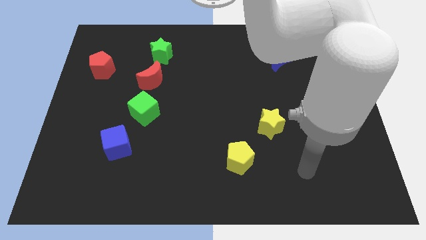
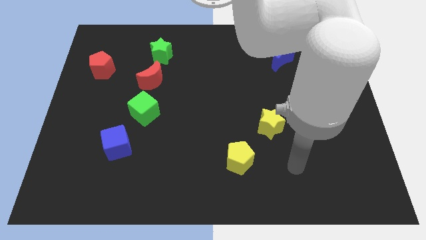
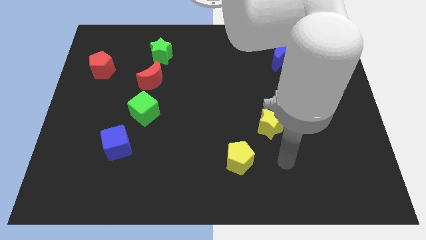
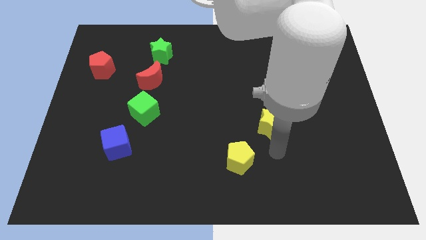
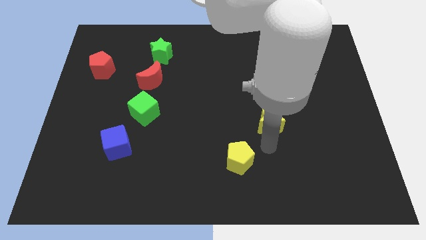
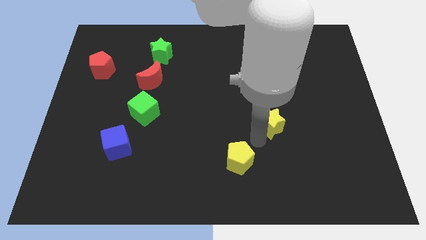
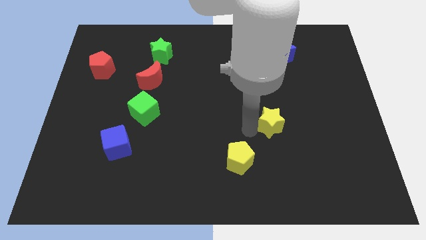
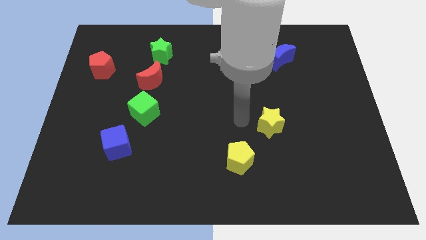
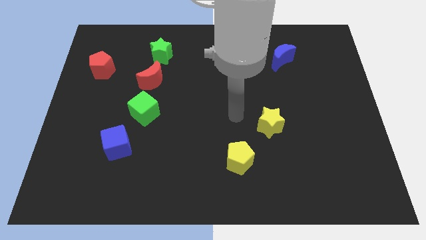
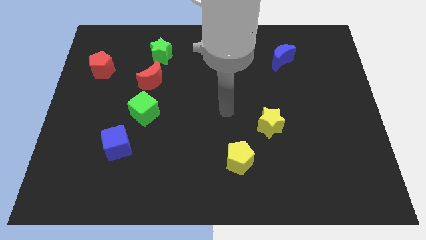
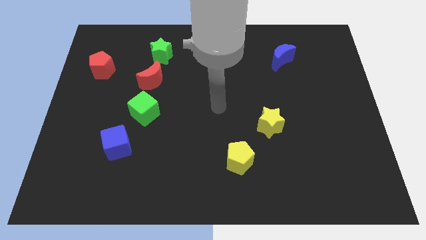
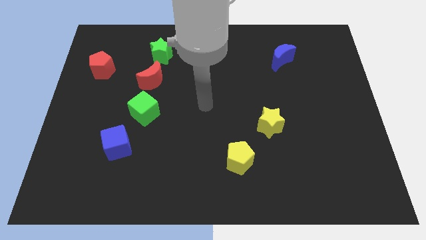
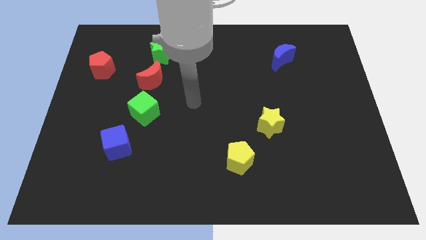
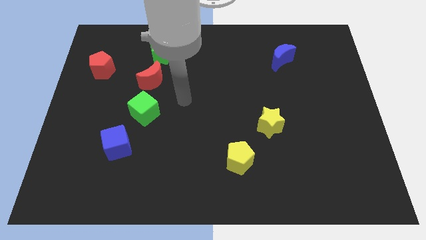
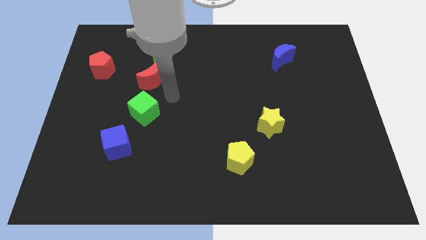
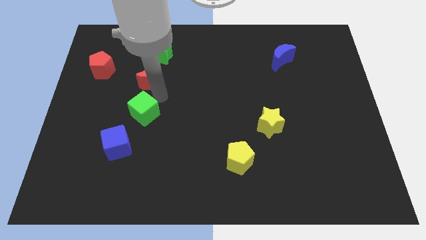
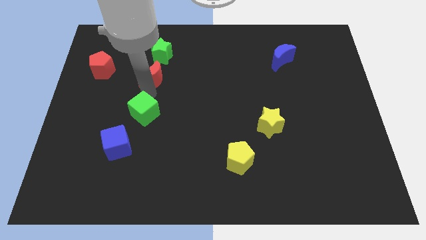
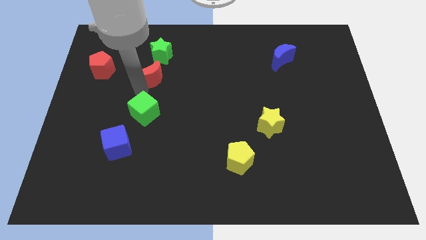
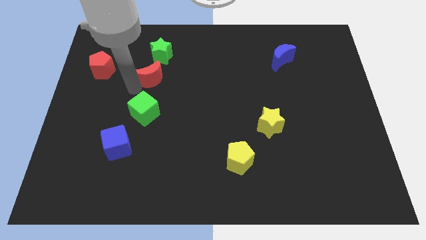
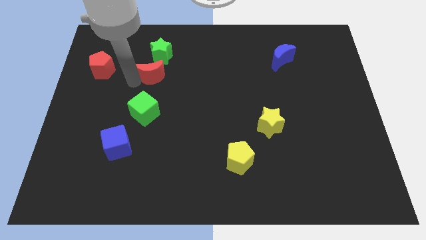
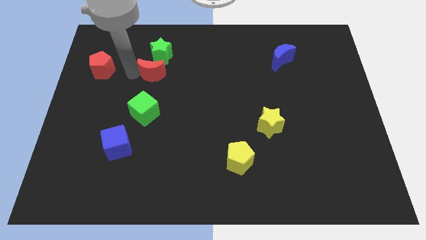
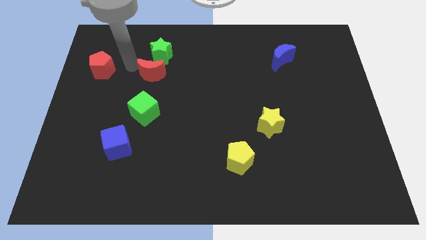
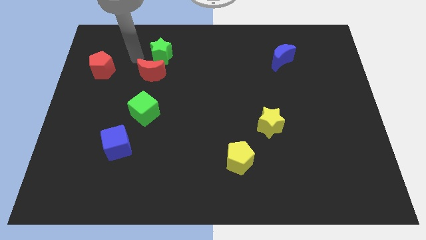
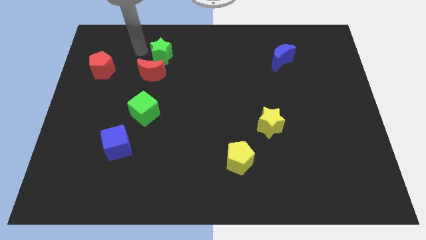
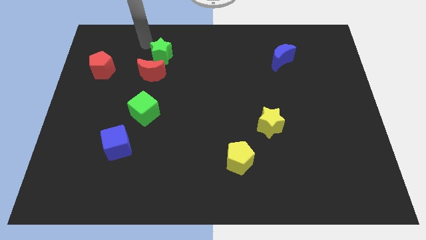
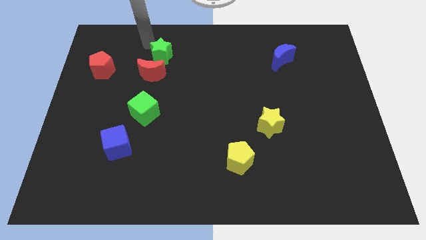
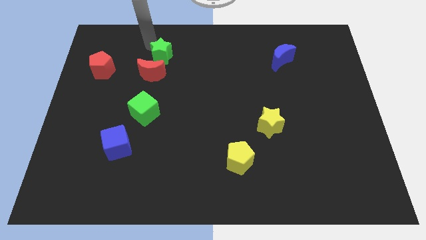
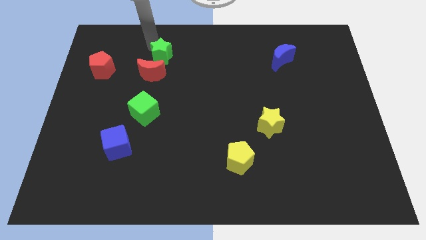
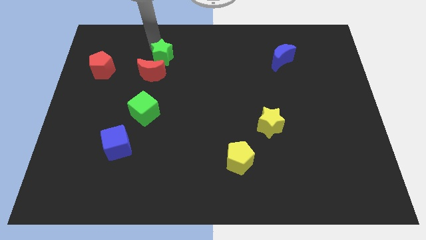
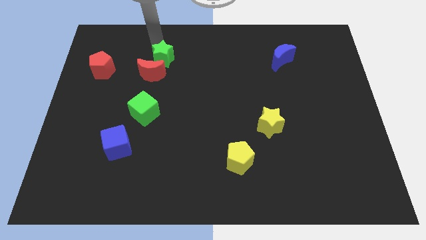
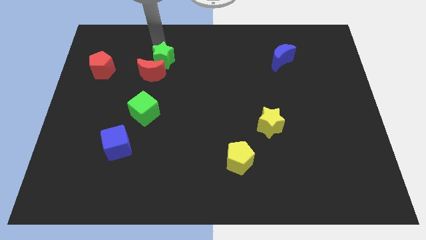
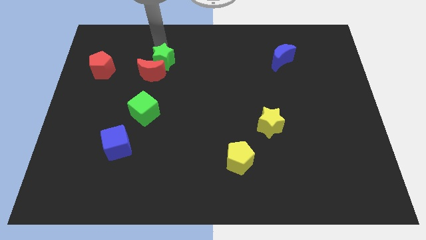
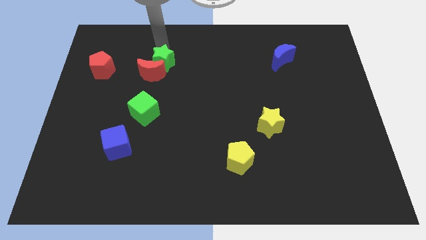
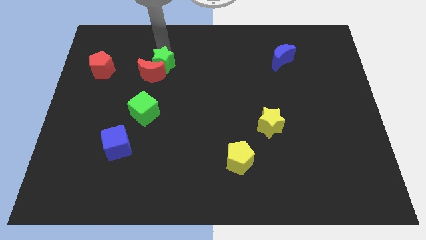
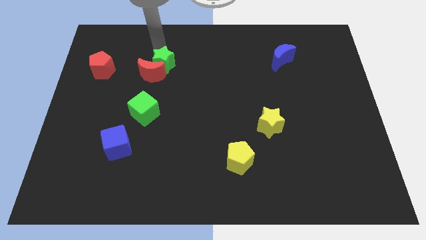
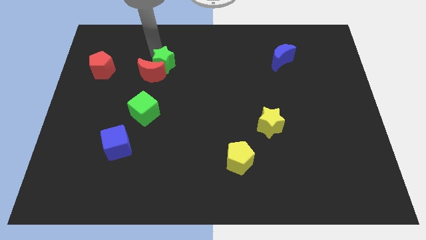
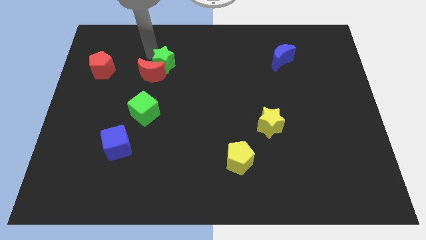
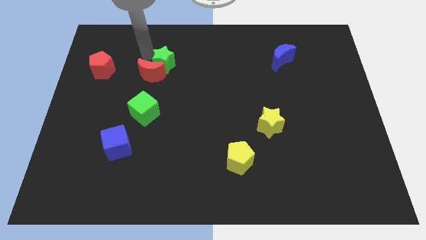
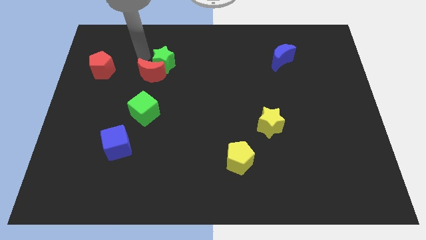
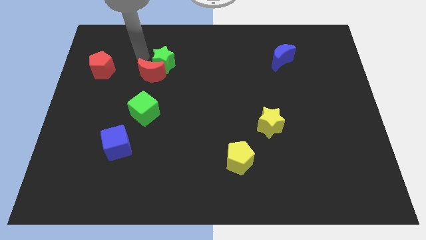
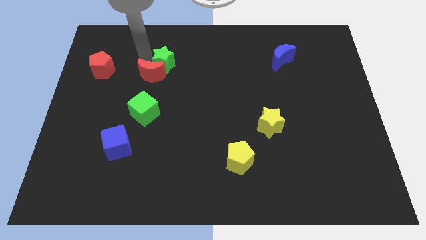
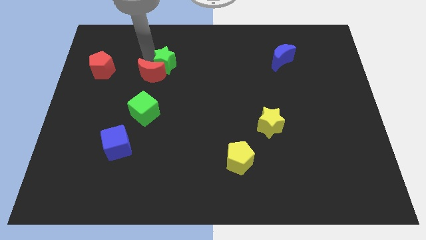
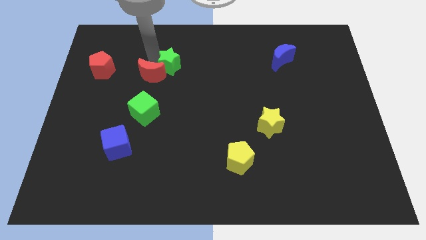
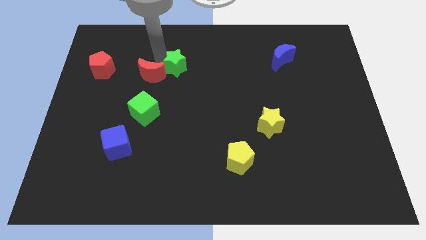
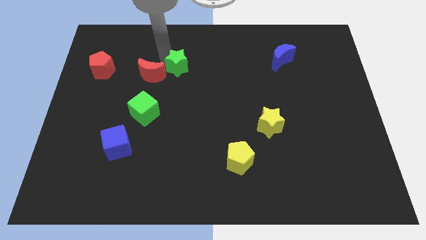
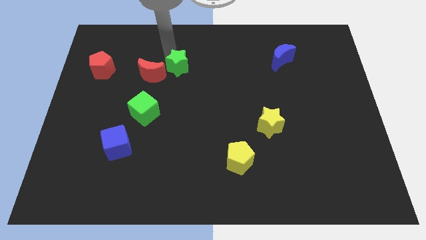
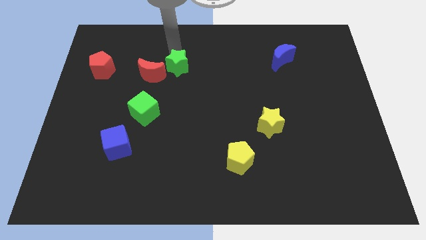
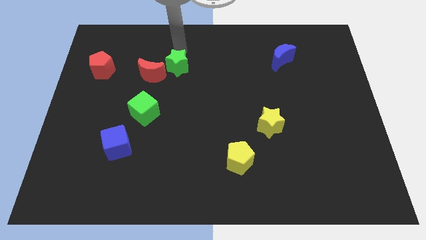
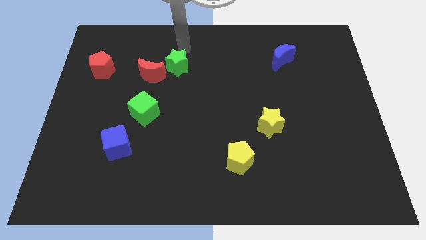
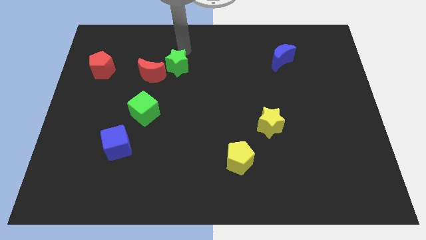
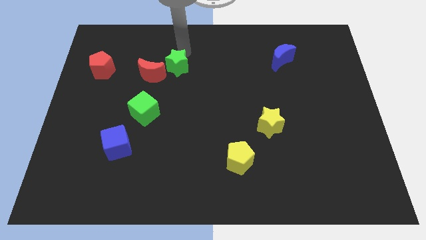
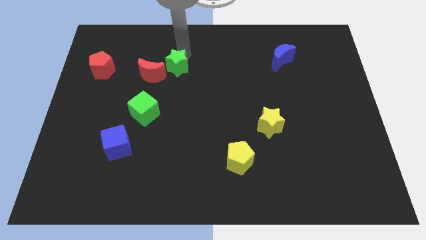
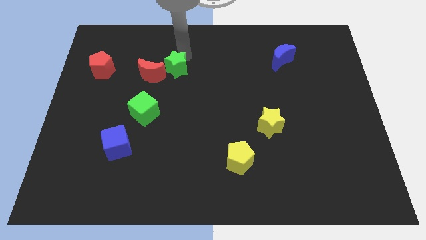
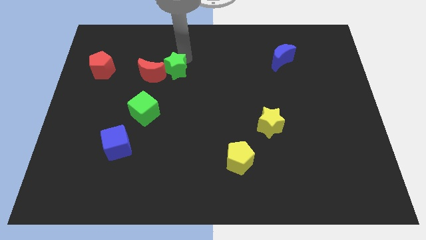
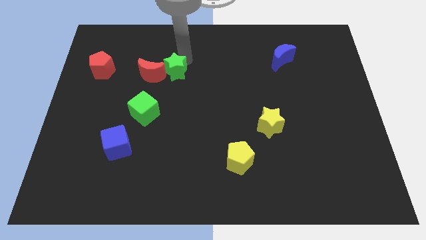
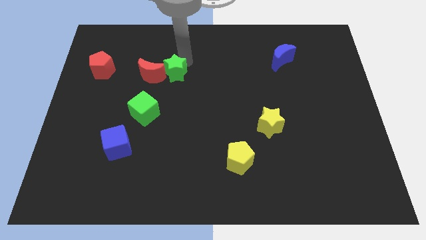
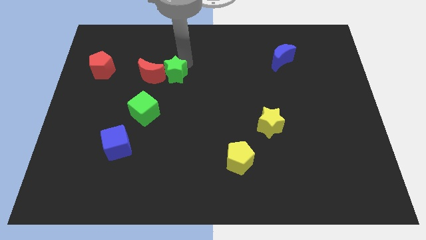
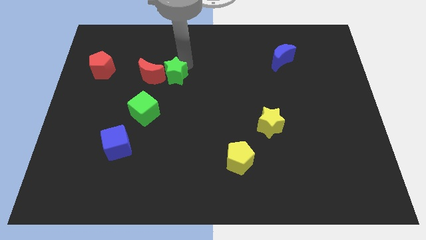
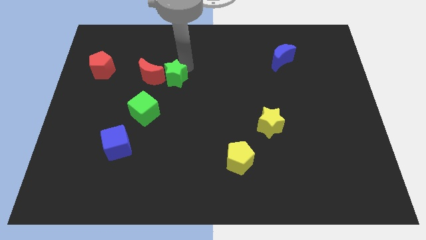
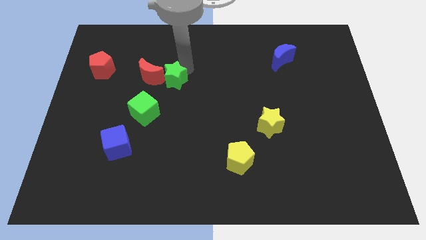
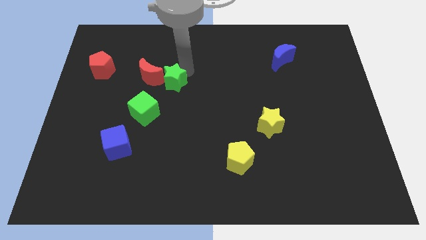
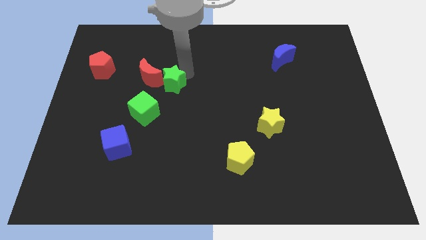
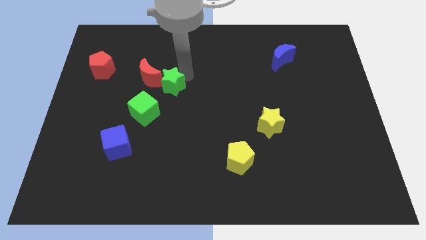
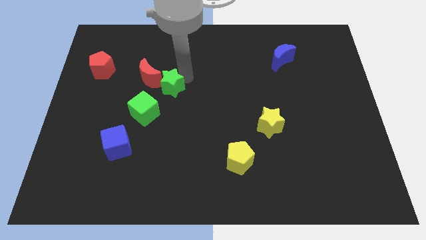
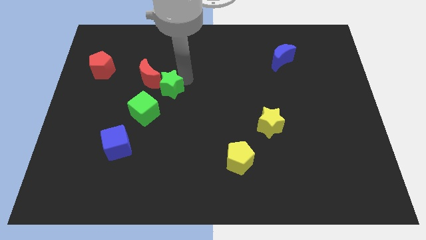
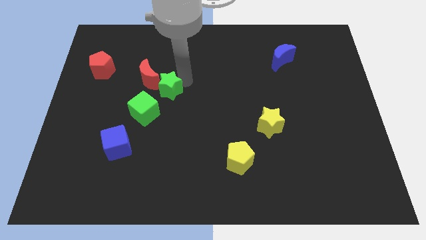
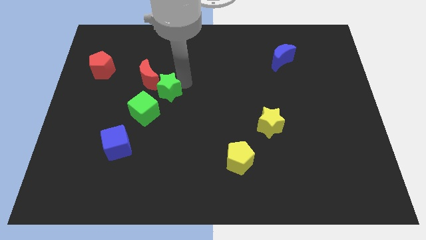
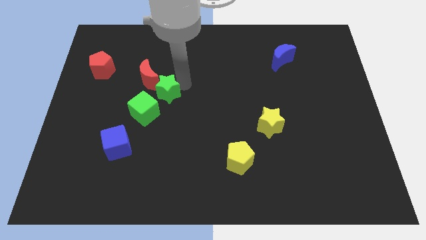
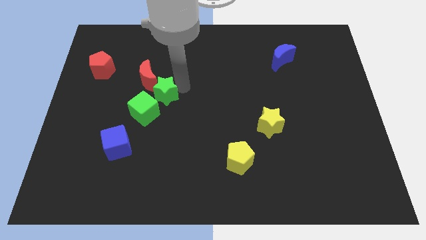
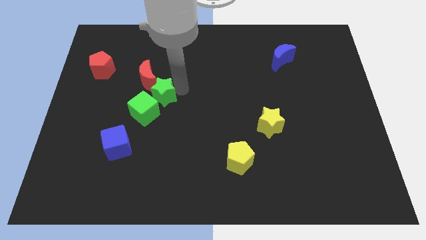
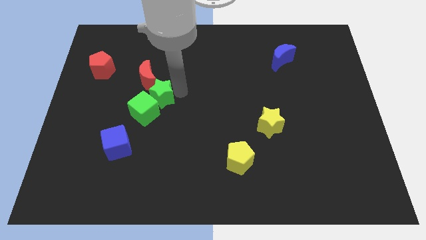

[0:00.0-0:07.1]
push the green star to the green cube
